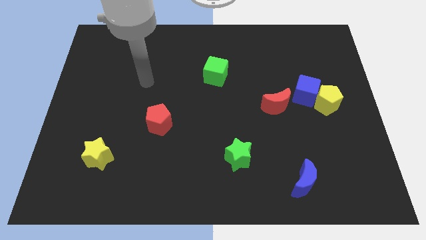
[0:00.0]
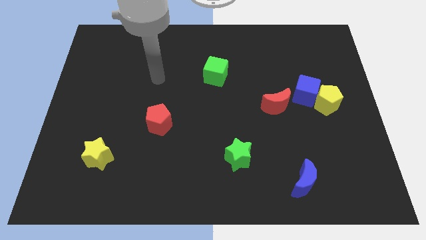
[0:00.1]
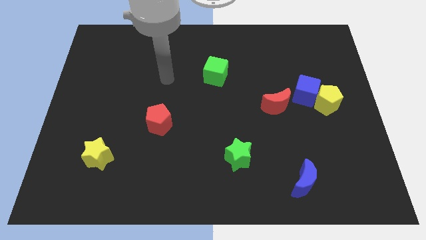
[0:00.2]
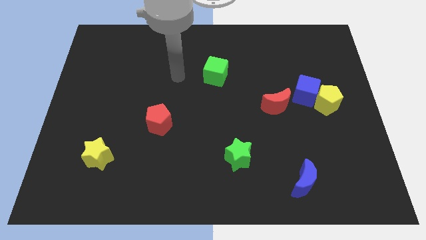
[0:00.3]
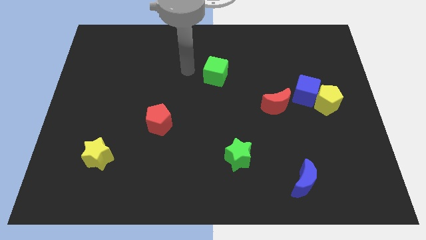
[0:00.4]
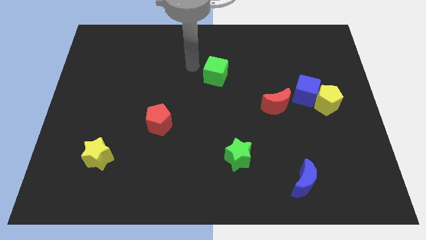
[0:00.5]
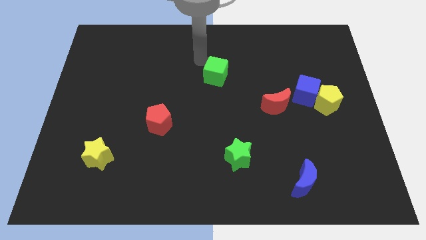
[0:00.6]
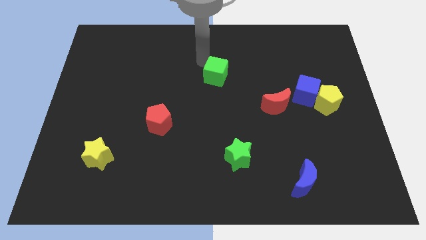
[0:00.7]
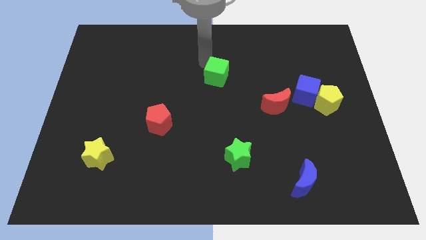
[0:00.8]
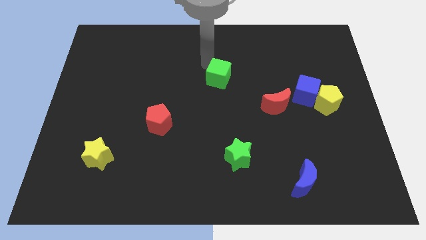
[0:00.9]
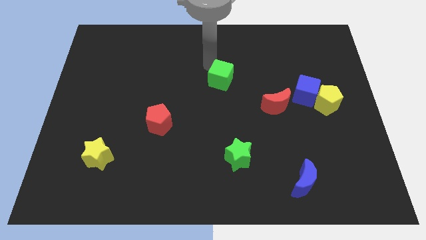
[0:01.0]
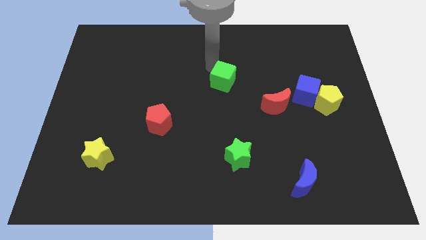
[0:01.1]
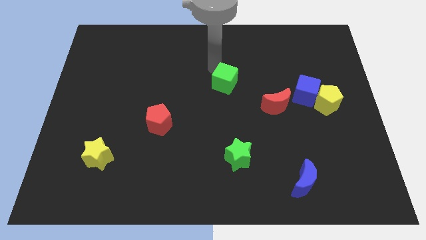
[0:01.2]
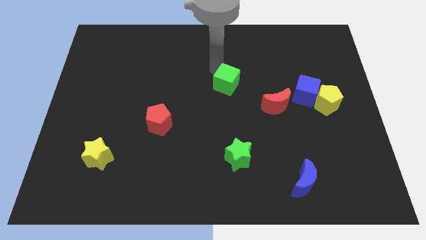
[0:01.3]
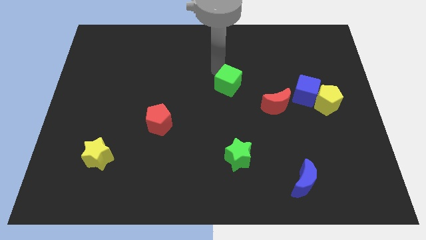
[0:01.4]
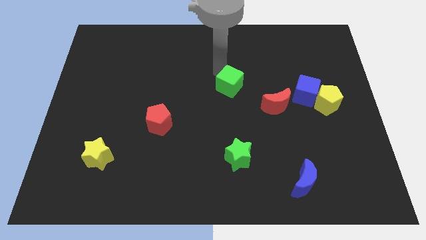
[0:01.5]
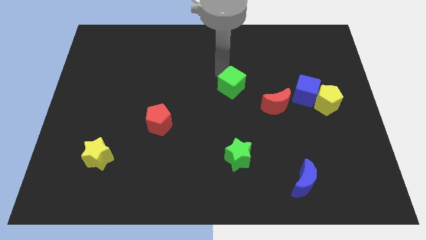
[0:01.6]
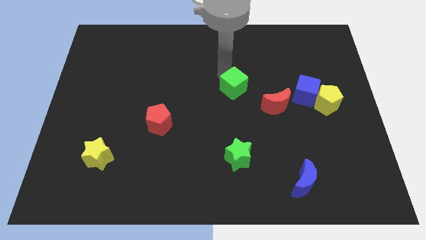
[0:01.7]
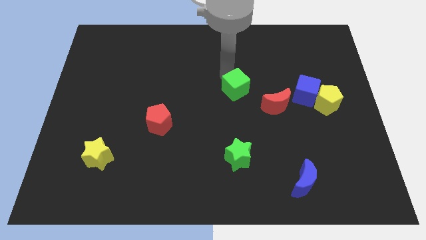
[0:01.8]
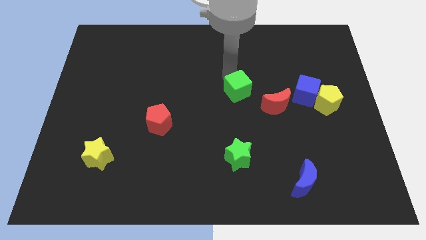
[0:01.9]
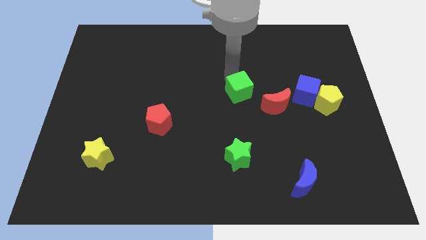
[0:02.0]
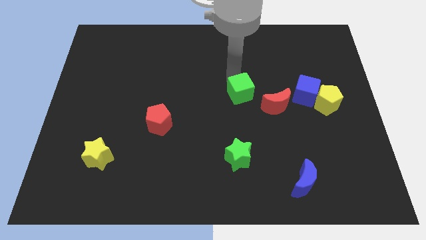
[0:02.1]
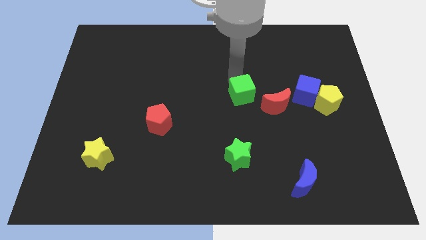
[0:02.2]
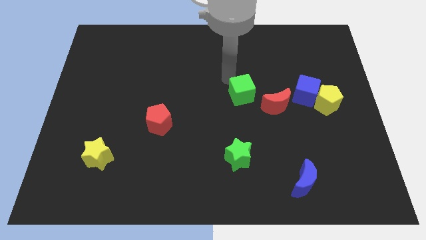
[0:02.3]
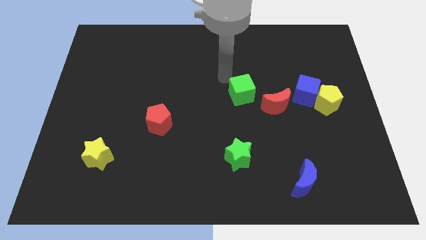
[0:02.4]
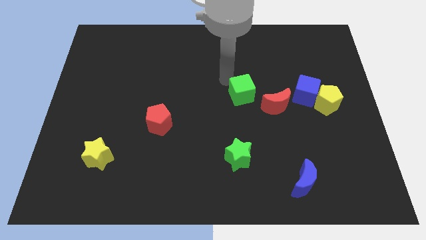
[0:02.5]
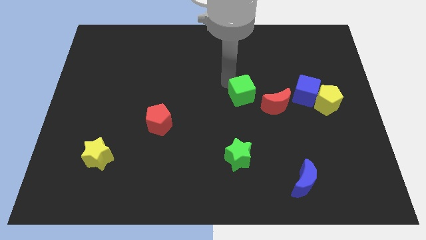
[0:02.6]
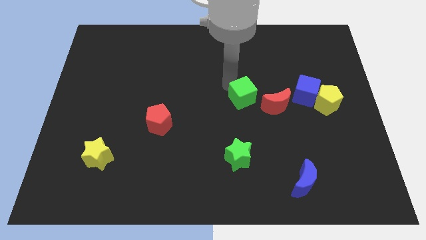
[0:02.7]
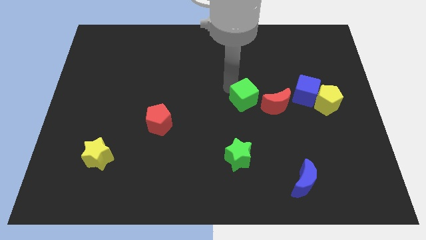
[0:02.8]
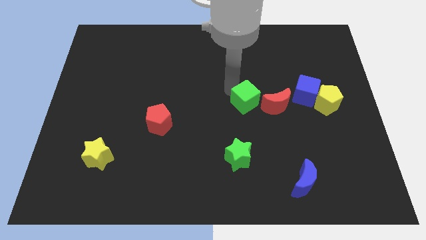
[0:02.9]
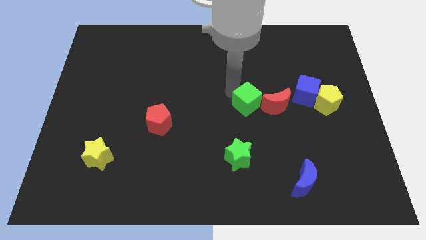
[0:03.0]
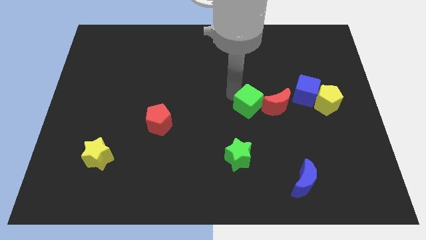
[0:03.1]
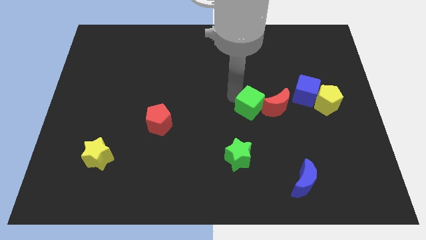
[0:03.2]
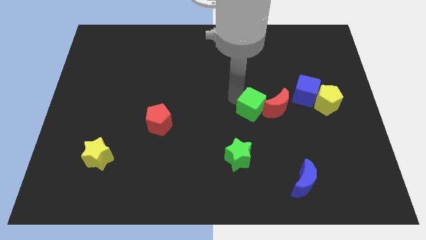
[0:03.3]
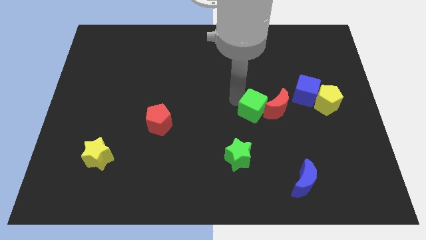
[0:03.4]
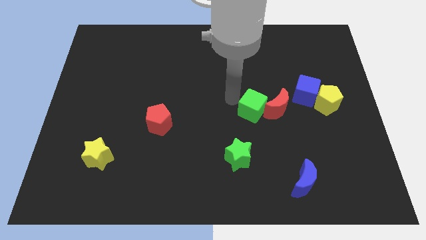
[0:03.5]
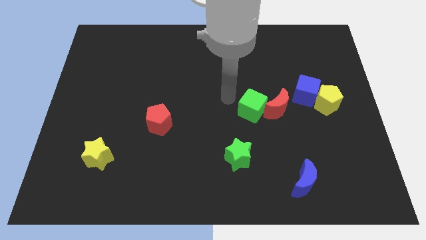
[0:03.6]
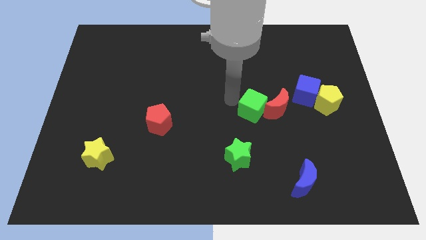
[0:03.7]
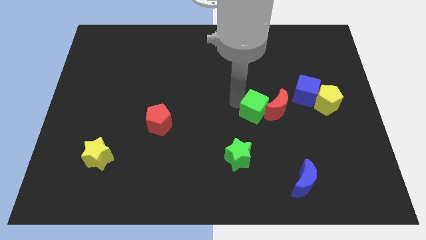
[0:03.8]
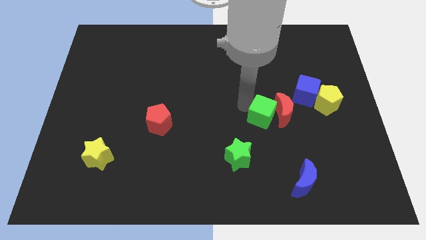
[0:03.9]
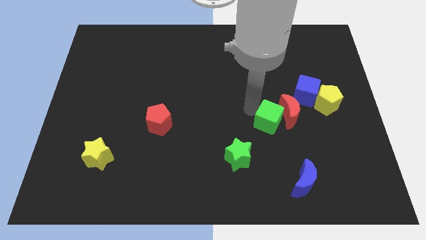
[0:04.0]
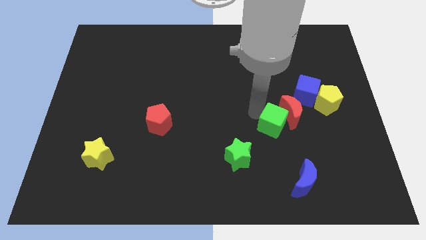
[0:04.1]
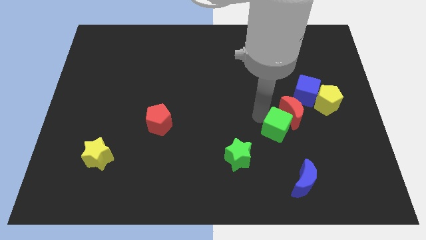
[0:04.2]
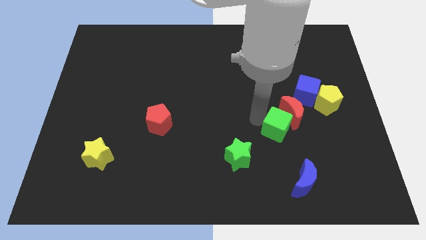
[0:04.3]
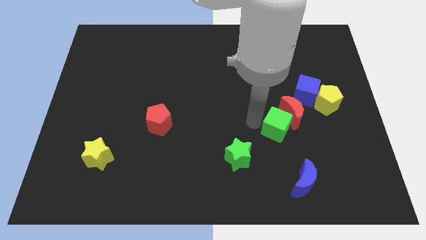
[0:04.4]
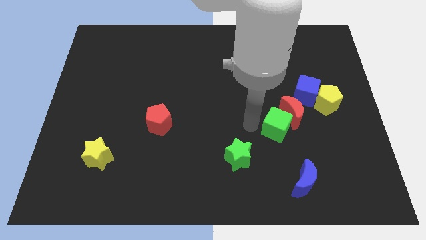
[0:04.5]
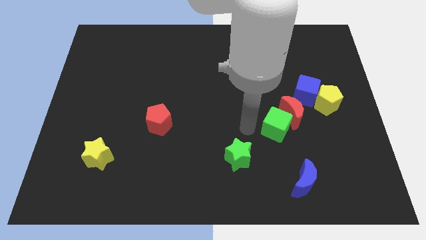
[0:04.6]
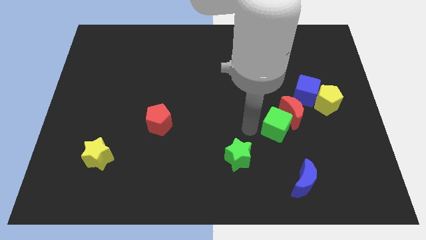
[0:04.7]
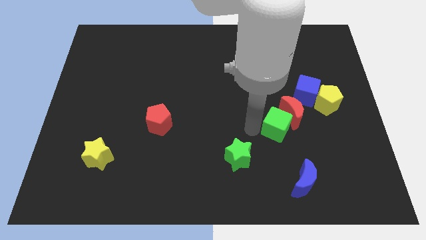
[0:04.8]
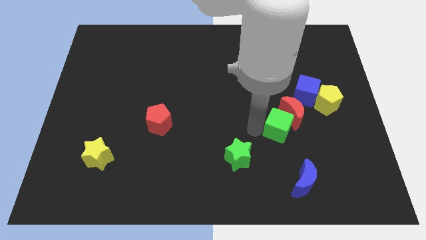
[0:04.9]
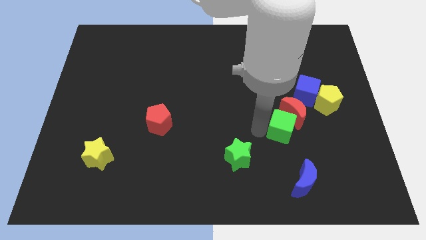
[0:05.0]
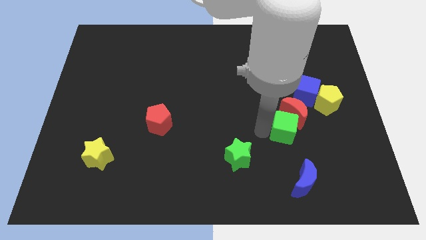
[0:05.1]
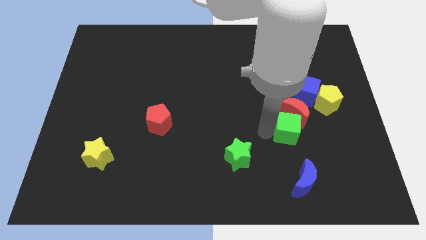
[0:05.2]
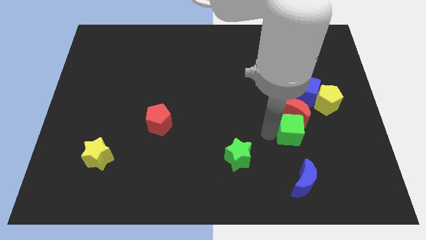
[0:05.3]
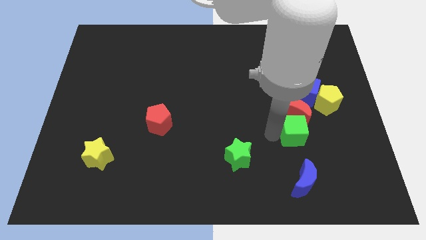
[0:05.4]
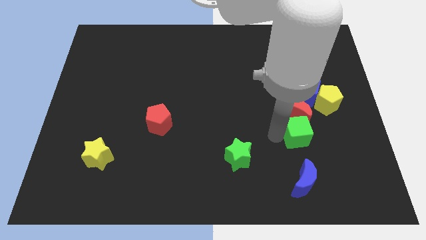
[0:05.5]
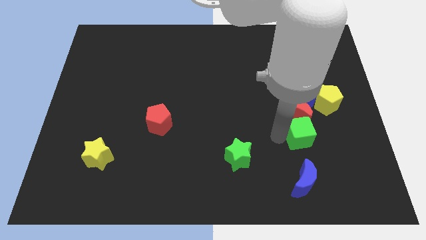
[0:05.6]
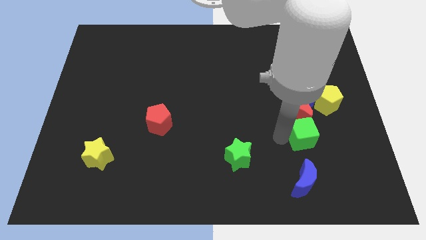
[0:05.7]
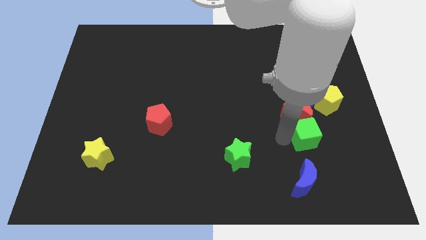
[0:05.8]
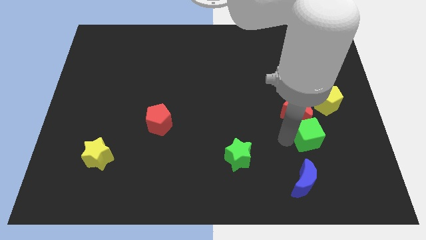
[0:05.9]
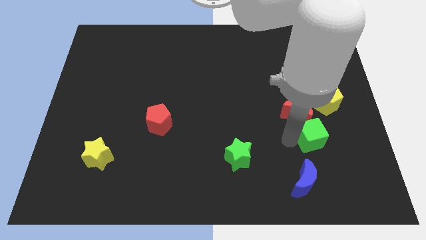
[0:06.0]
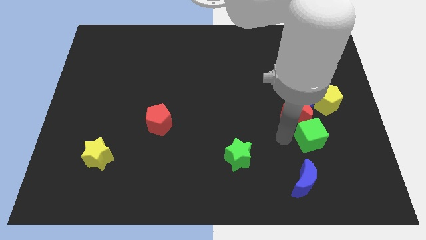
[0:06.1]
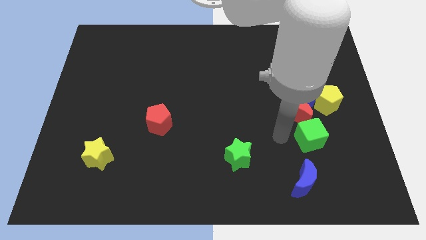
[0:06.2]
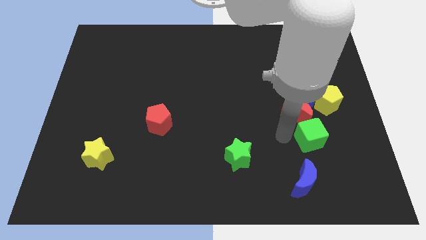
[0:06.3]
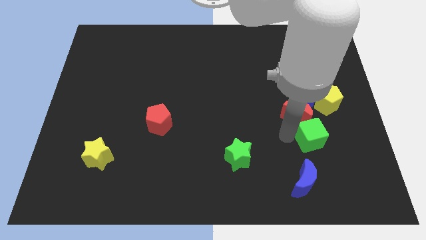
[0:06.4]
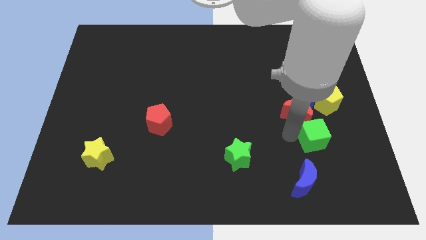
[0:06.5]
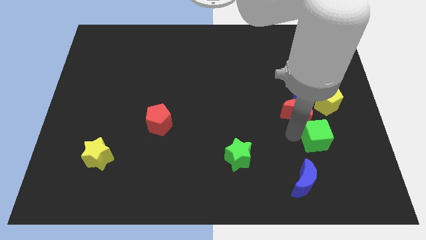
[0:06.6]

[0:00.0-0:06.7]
slide the green cube to the bottom side of the yellow pentagon
